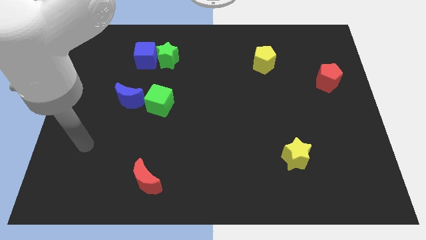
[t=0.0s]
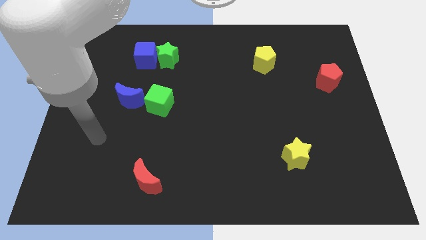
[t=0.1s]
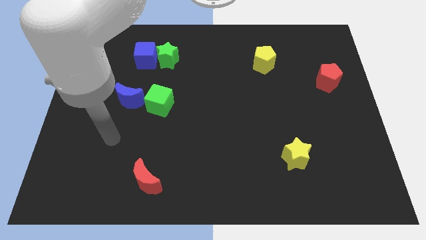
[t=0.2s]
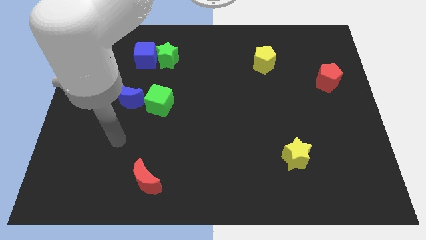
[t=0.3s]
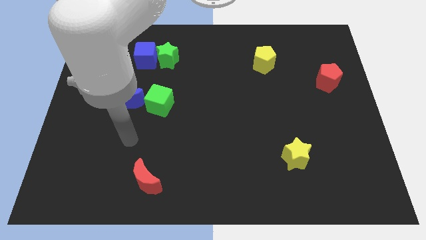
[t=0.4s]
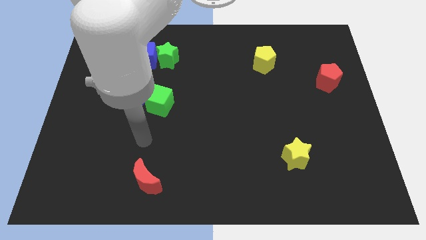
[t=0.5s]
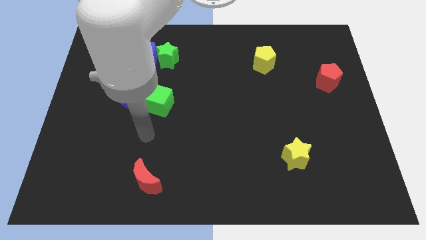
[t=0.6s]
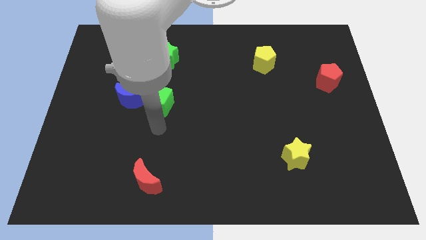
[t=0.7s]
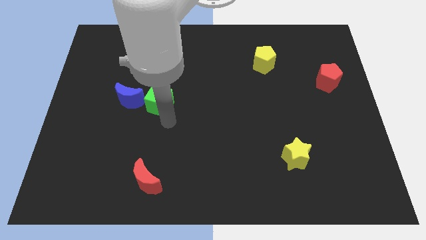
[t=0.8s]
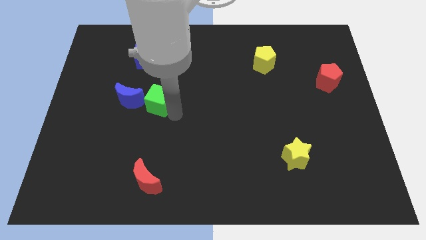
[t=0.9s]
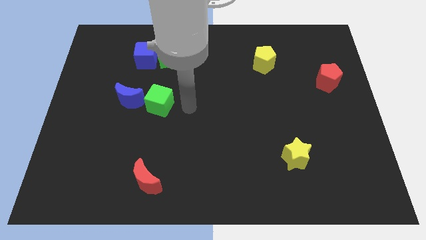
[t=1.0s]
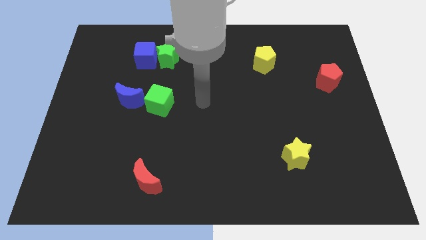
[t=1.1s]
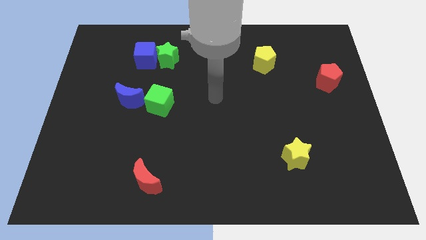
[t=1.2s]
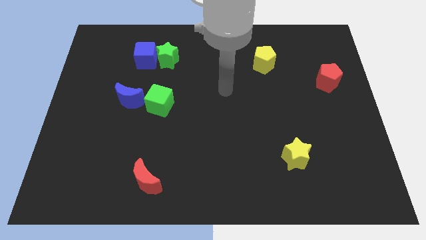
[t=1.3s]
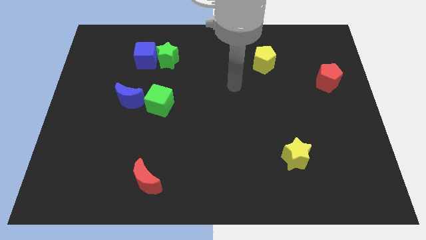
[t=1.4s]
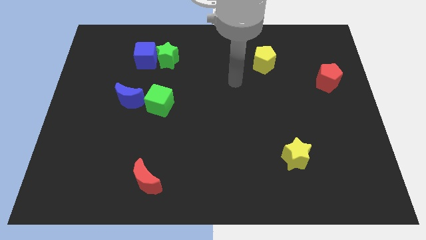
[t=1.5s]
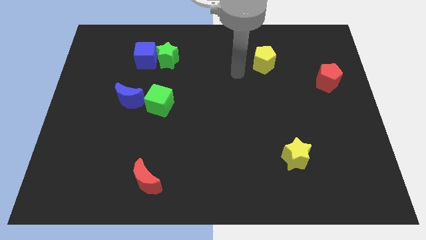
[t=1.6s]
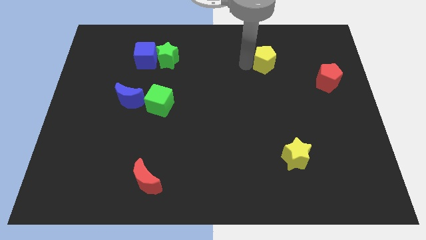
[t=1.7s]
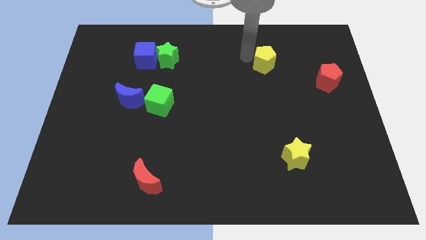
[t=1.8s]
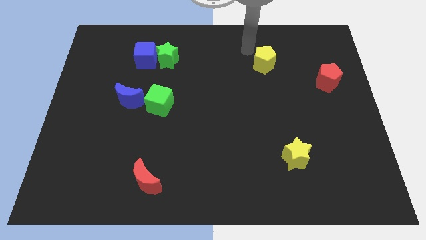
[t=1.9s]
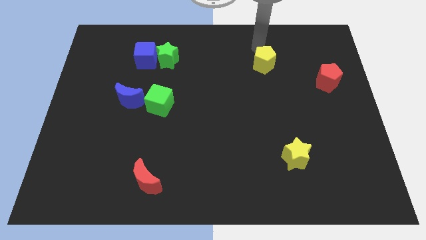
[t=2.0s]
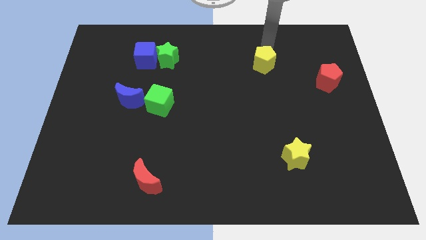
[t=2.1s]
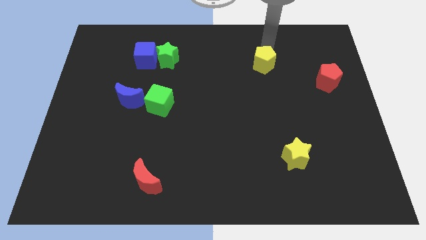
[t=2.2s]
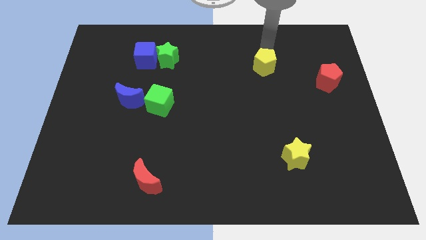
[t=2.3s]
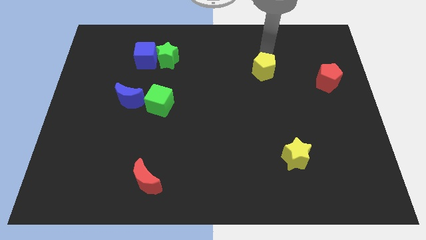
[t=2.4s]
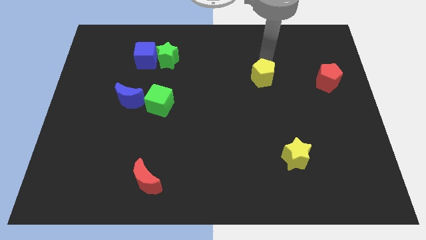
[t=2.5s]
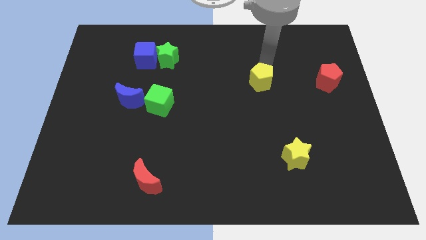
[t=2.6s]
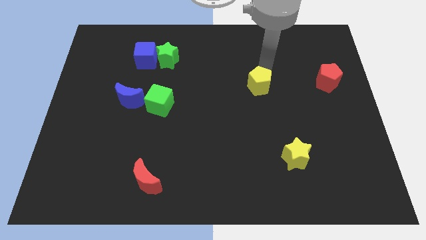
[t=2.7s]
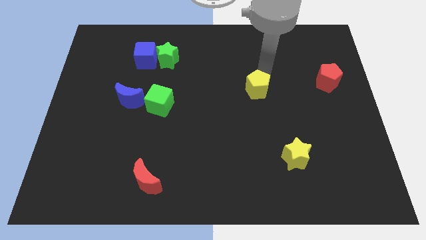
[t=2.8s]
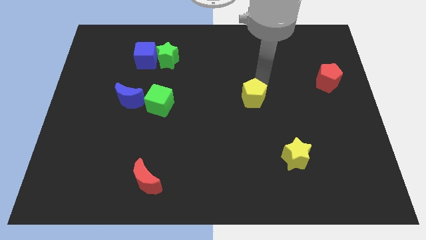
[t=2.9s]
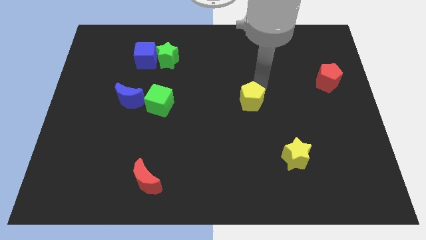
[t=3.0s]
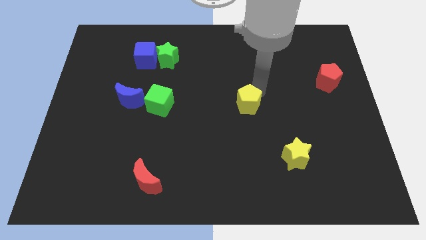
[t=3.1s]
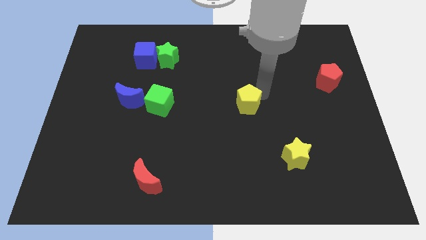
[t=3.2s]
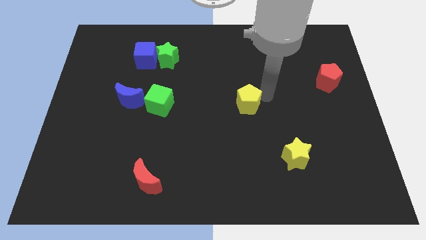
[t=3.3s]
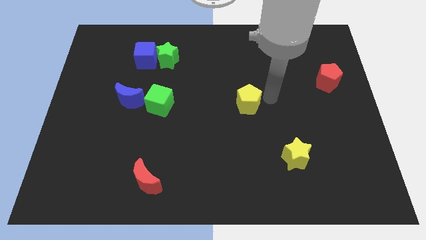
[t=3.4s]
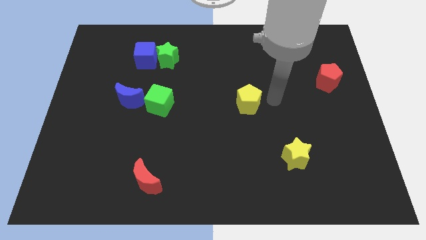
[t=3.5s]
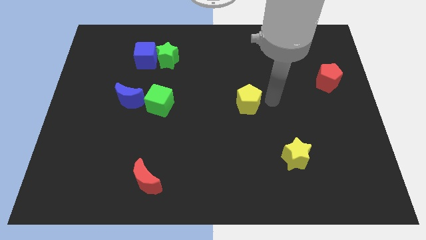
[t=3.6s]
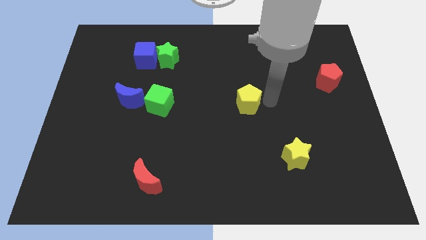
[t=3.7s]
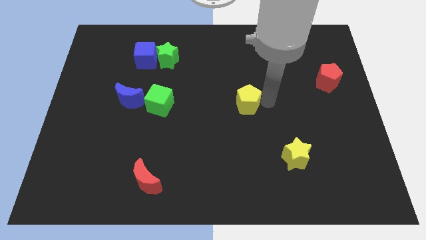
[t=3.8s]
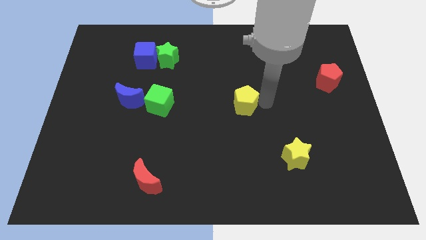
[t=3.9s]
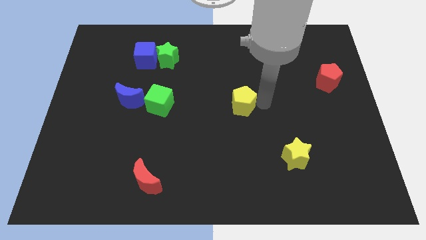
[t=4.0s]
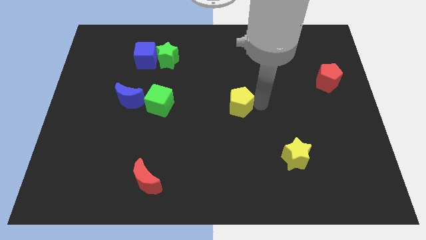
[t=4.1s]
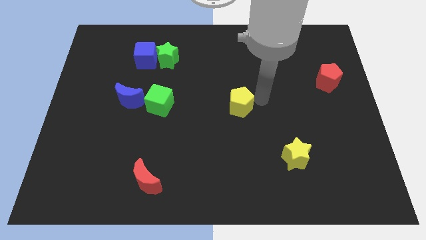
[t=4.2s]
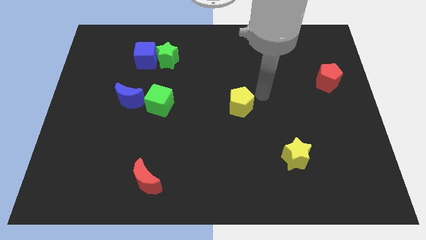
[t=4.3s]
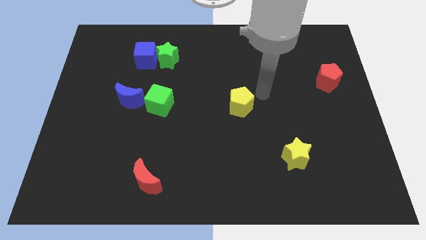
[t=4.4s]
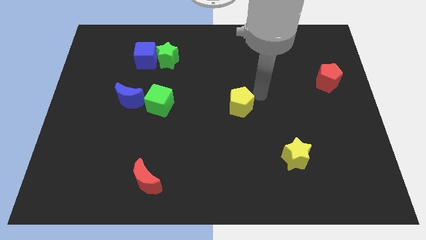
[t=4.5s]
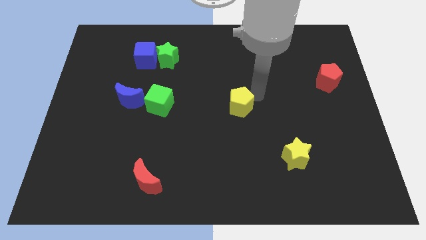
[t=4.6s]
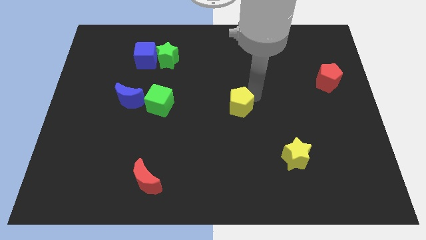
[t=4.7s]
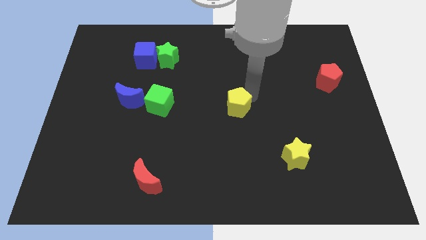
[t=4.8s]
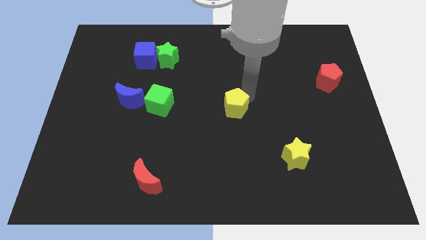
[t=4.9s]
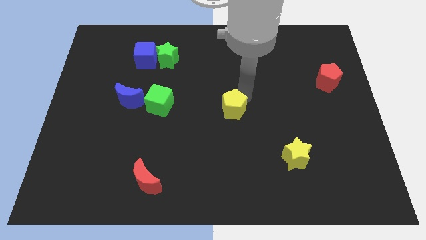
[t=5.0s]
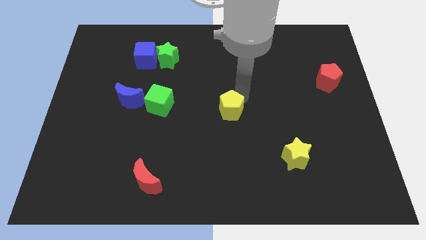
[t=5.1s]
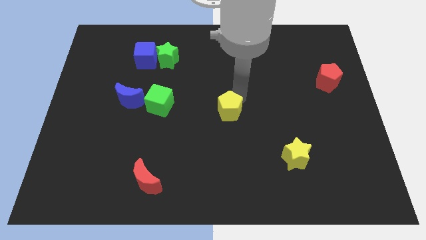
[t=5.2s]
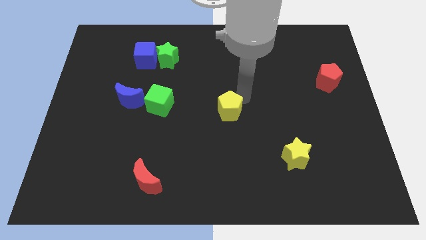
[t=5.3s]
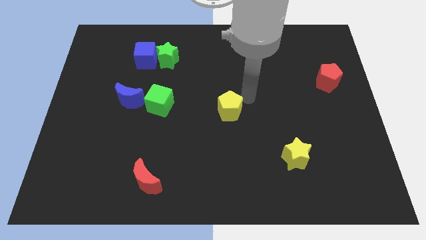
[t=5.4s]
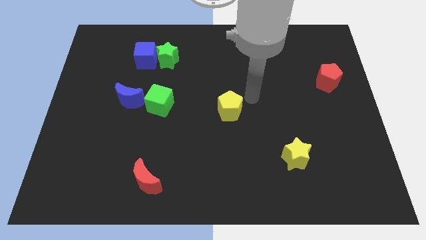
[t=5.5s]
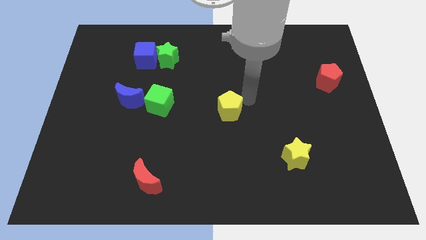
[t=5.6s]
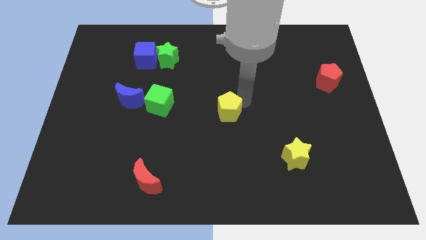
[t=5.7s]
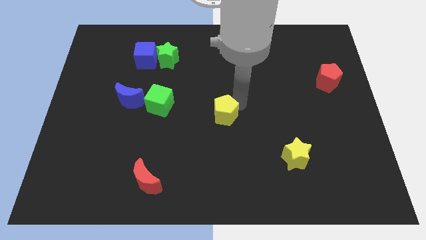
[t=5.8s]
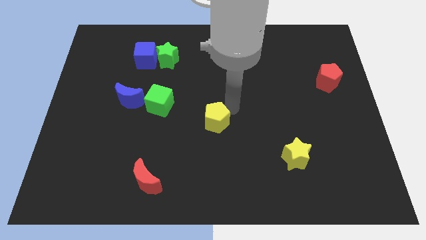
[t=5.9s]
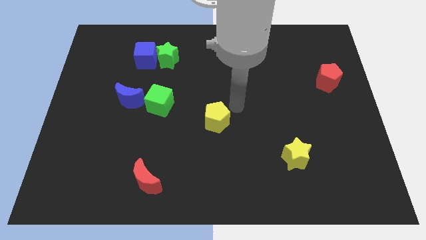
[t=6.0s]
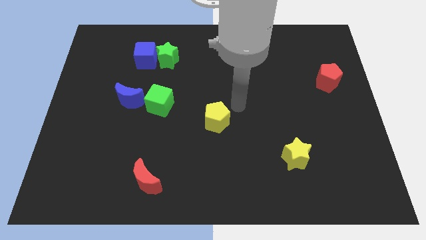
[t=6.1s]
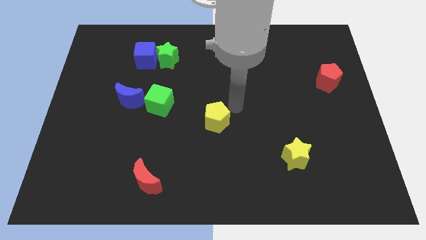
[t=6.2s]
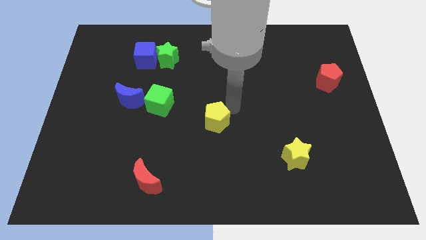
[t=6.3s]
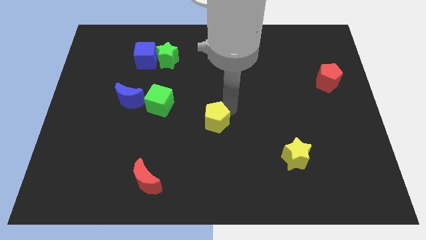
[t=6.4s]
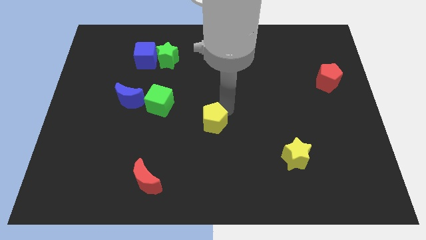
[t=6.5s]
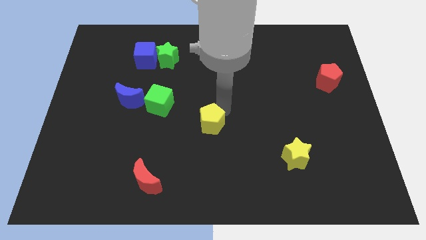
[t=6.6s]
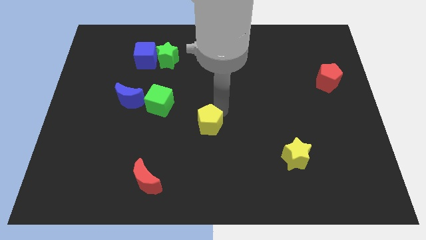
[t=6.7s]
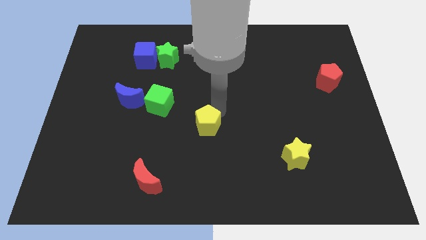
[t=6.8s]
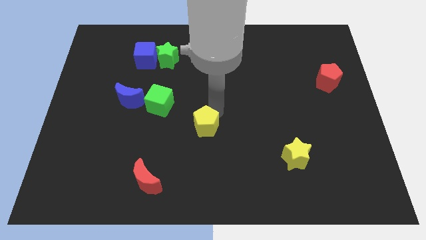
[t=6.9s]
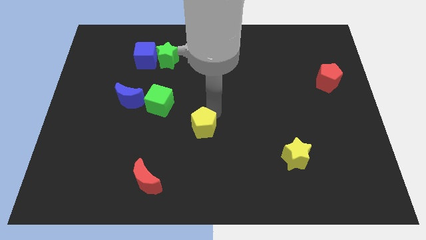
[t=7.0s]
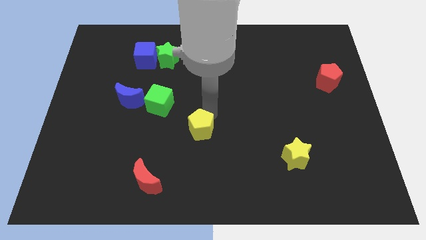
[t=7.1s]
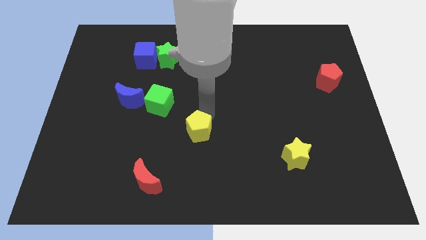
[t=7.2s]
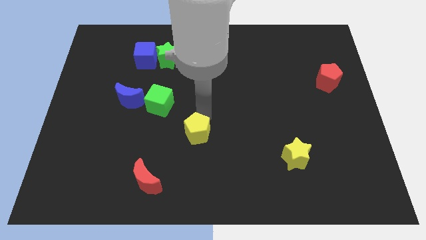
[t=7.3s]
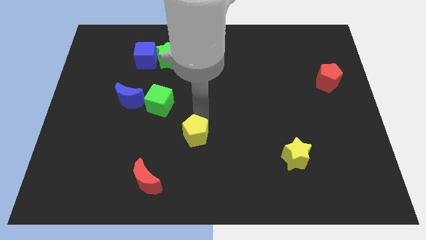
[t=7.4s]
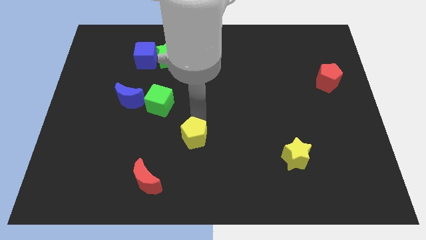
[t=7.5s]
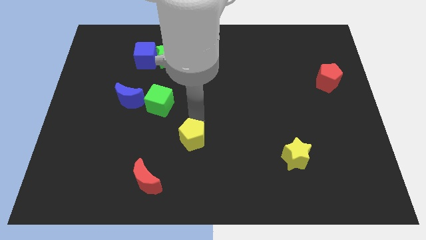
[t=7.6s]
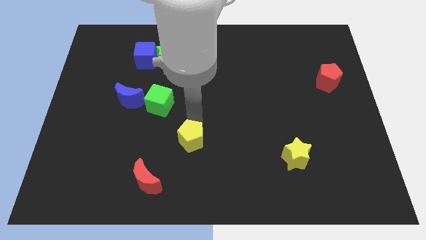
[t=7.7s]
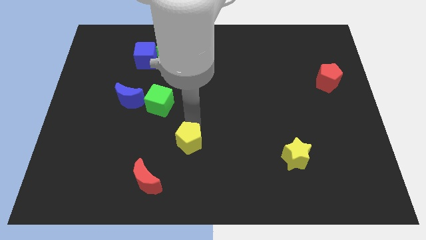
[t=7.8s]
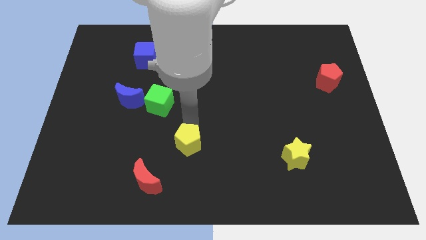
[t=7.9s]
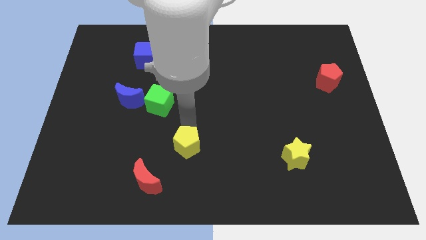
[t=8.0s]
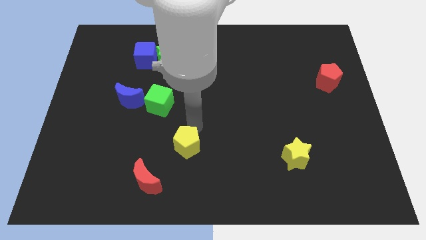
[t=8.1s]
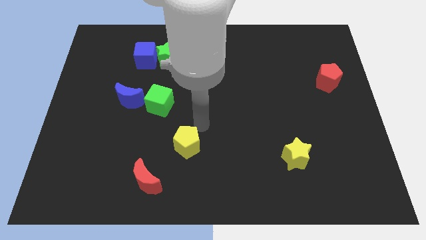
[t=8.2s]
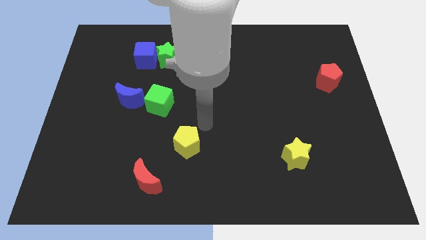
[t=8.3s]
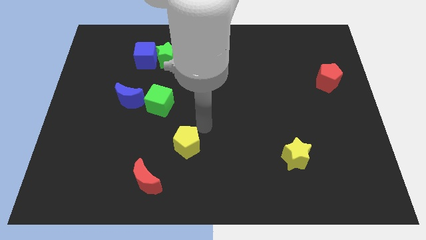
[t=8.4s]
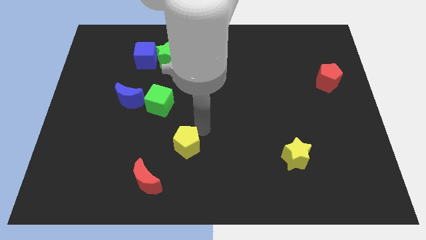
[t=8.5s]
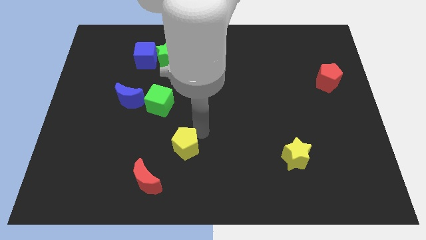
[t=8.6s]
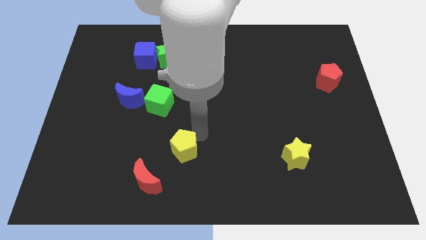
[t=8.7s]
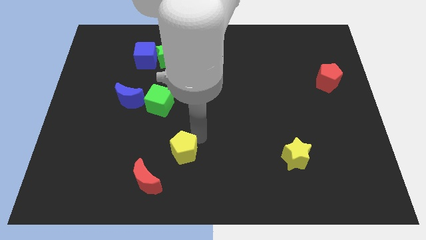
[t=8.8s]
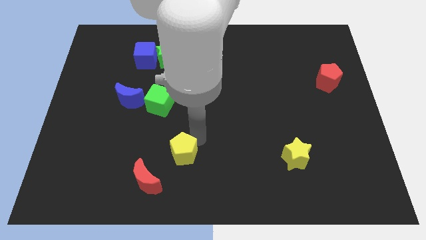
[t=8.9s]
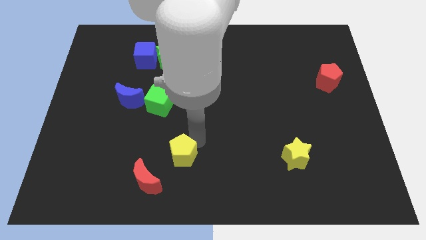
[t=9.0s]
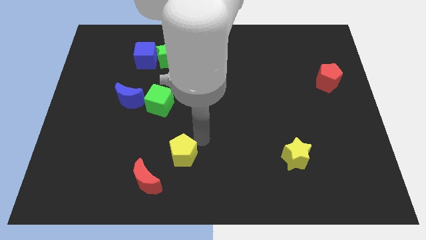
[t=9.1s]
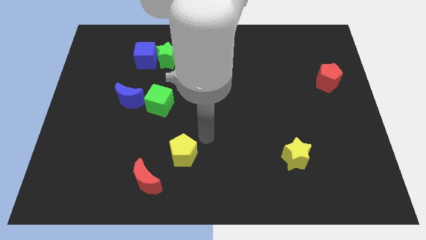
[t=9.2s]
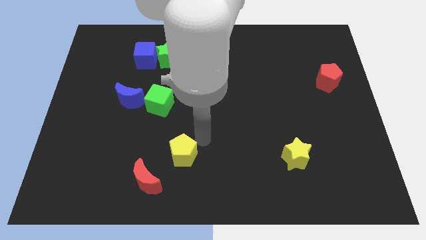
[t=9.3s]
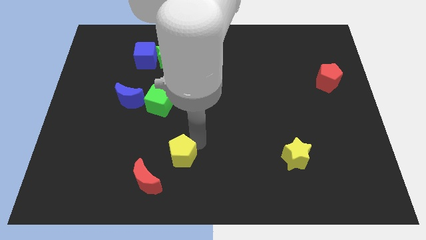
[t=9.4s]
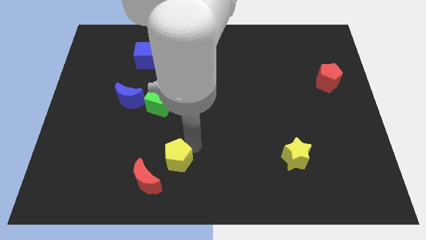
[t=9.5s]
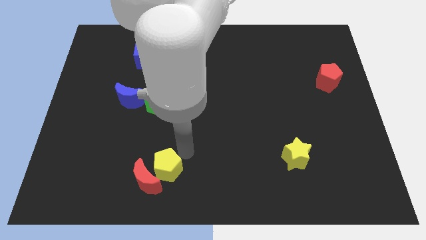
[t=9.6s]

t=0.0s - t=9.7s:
slide the yellow pentagon towards the red moon
